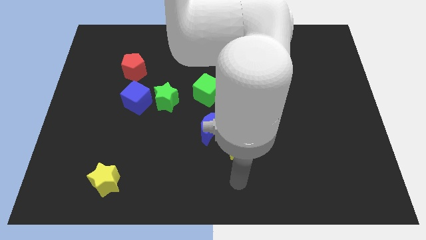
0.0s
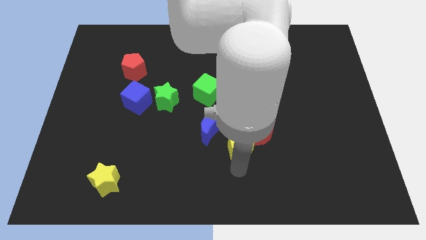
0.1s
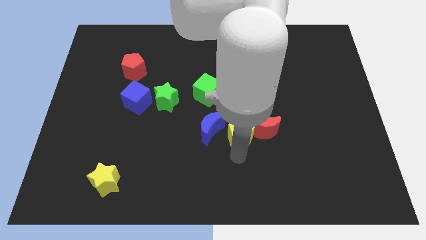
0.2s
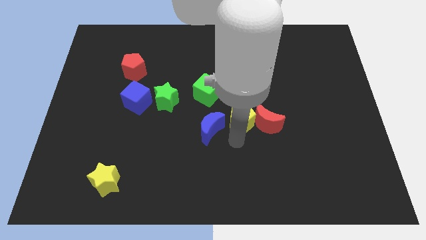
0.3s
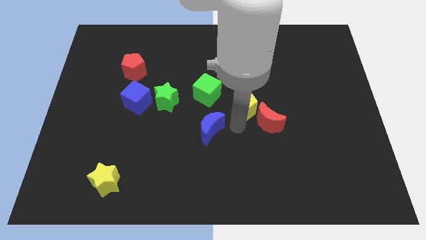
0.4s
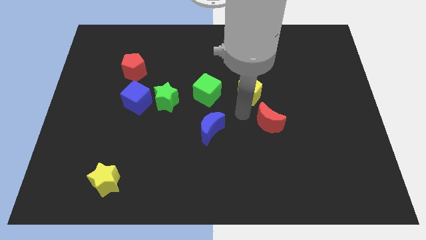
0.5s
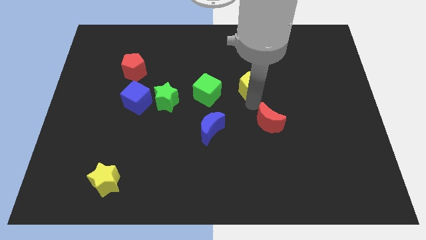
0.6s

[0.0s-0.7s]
pull the red moon apart from the yellow pentagon

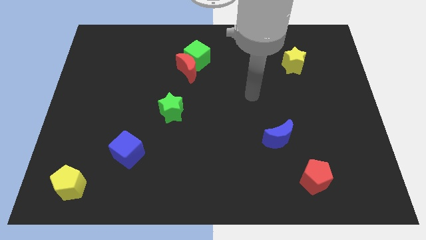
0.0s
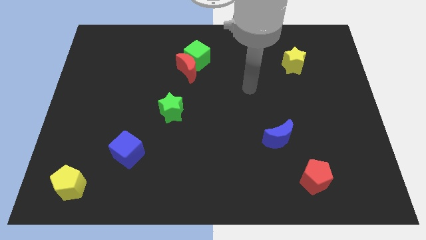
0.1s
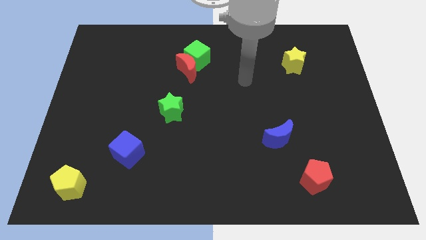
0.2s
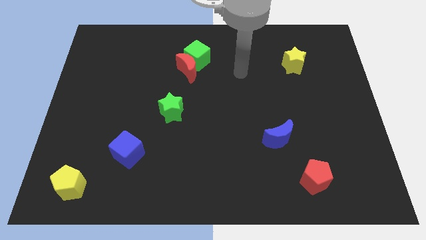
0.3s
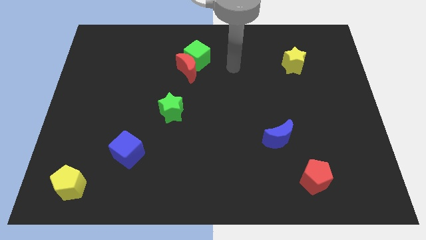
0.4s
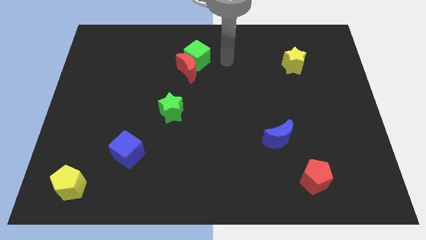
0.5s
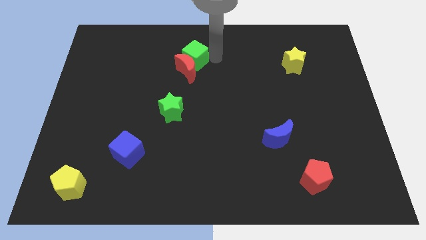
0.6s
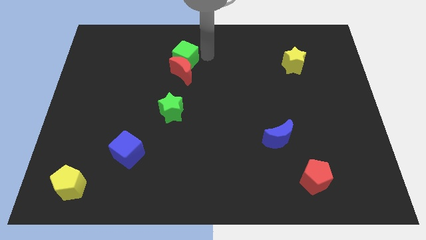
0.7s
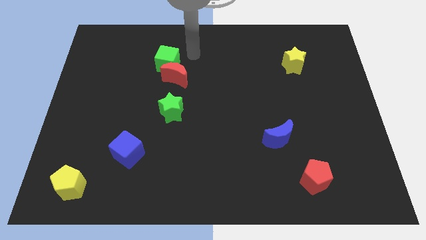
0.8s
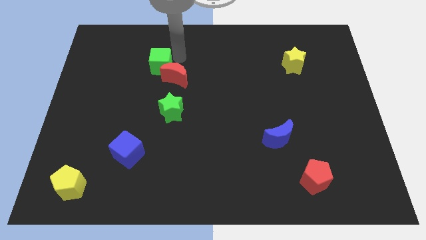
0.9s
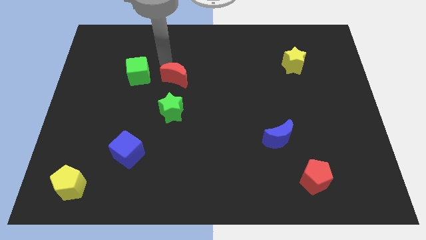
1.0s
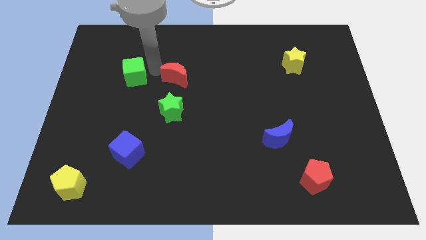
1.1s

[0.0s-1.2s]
pull the red moon apart from the green cube

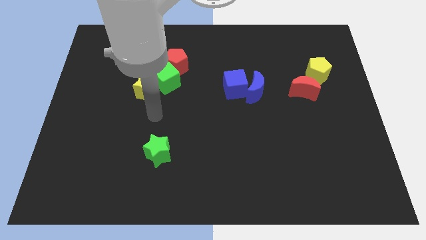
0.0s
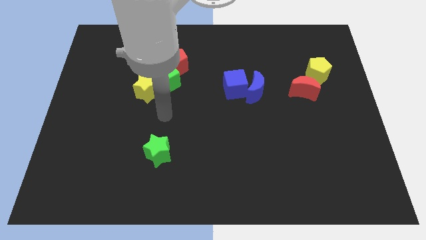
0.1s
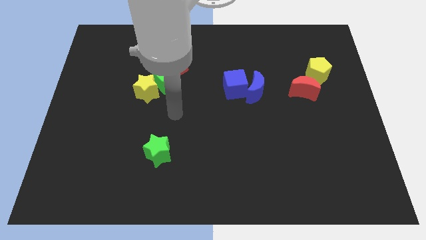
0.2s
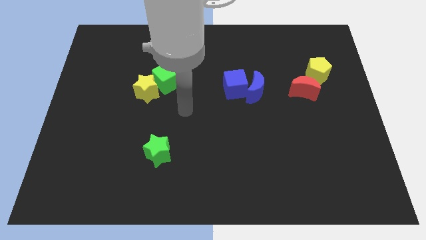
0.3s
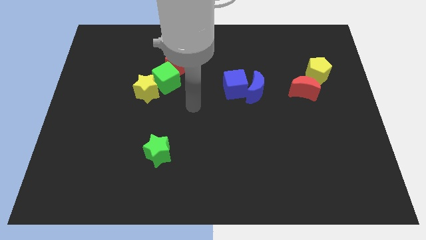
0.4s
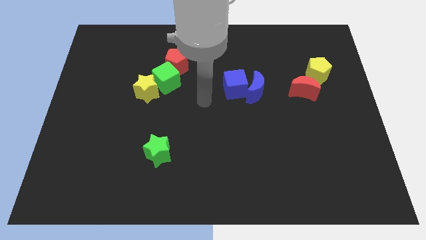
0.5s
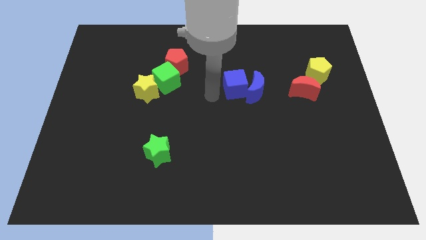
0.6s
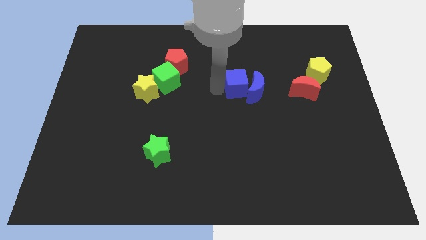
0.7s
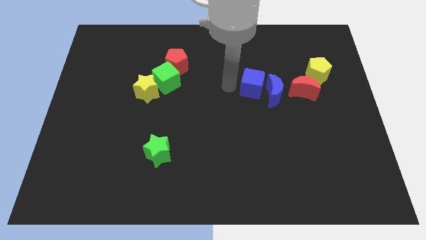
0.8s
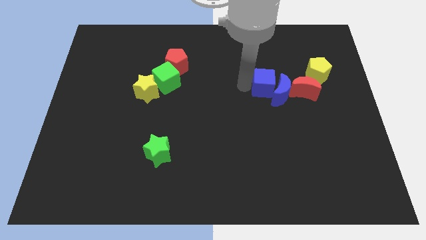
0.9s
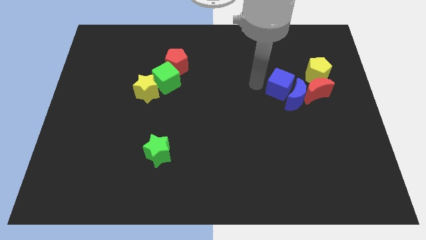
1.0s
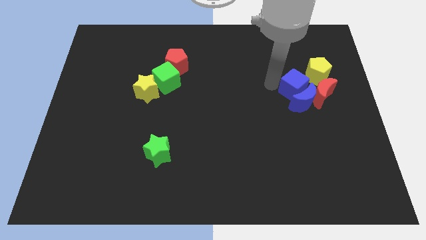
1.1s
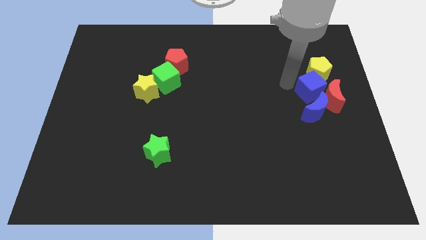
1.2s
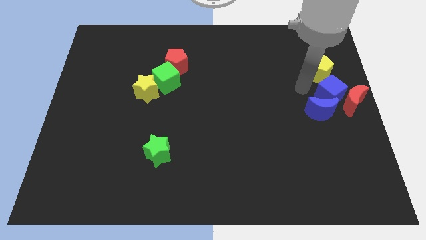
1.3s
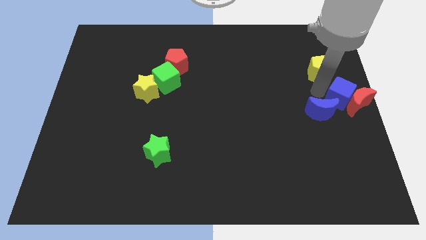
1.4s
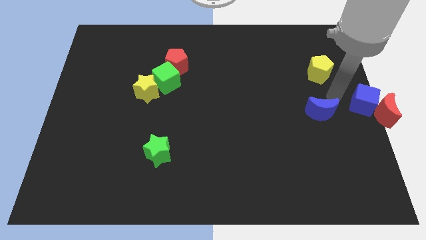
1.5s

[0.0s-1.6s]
separate the blue moon from the blue cube

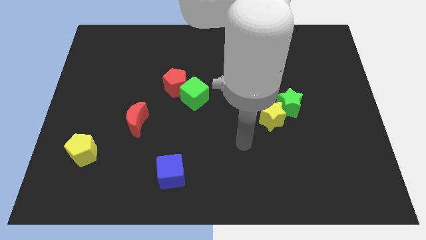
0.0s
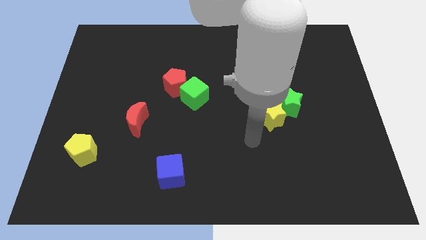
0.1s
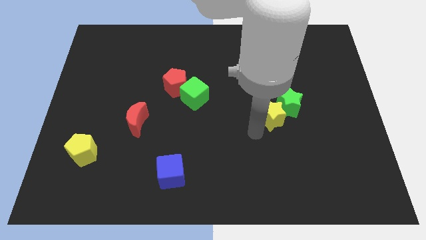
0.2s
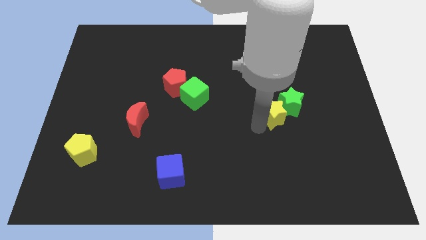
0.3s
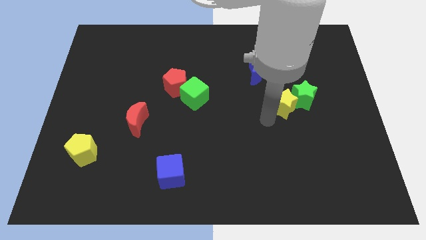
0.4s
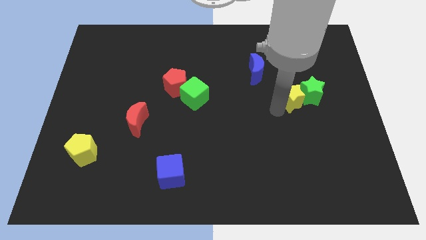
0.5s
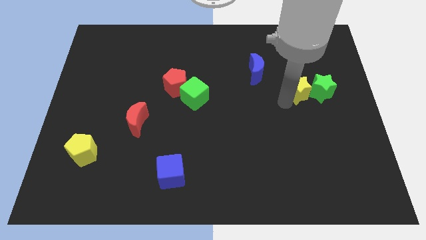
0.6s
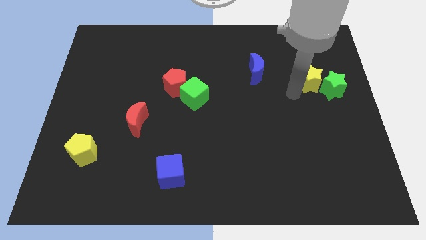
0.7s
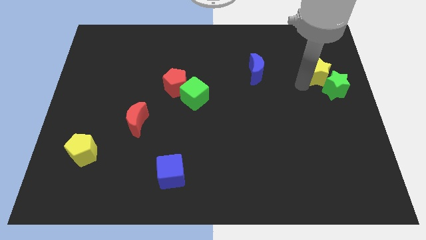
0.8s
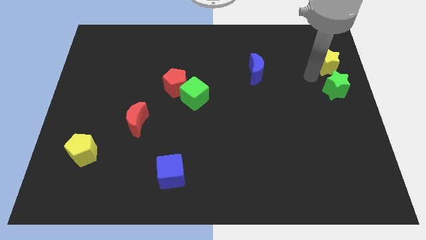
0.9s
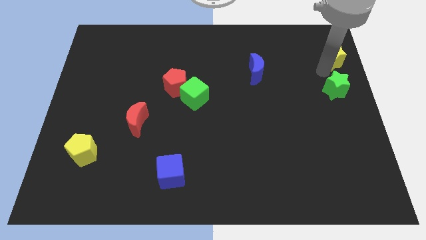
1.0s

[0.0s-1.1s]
separate the green star from the yellow star

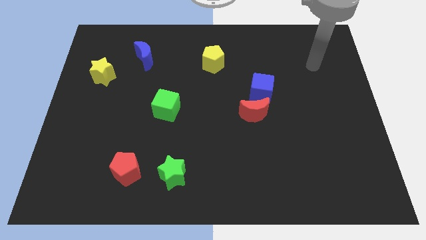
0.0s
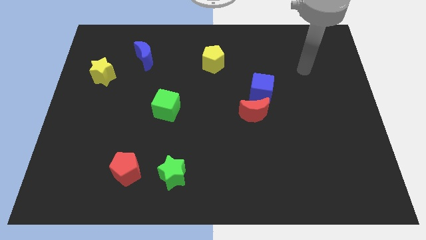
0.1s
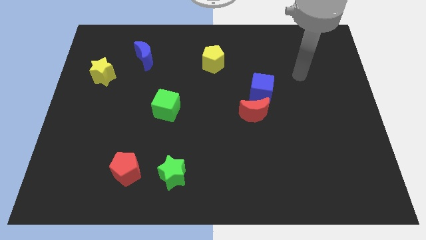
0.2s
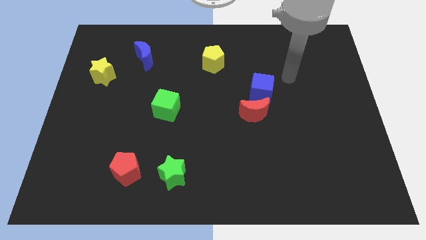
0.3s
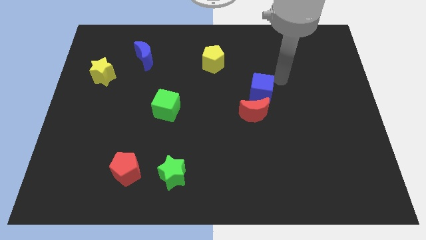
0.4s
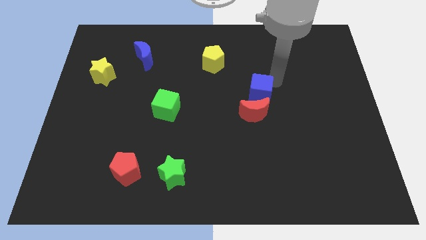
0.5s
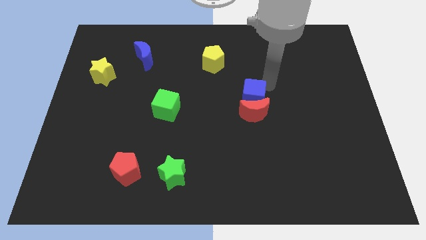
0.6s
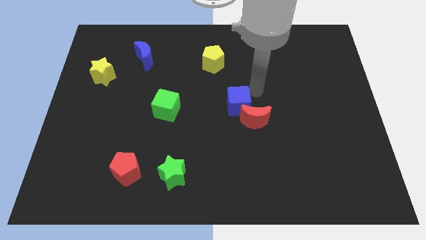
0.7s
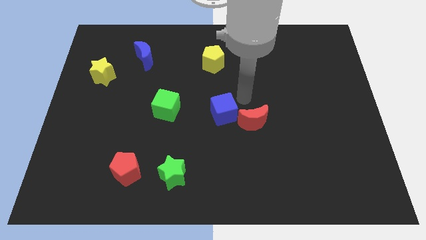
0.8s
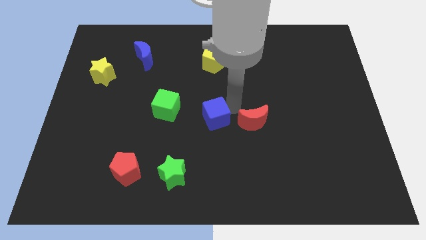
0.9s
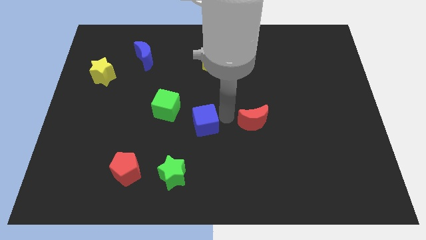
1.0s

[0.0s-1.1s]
separate the red moon from the blue cube

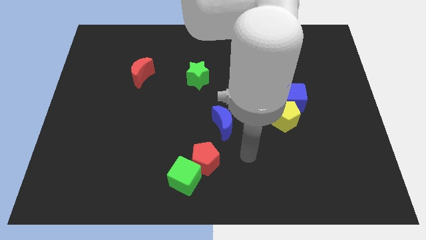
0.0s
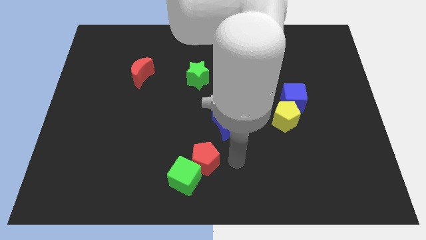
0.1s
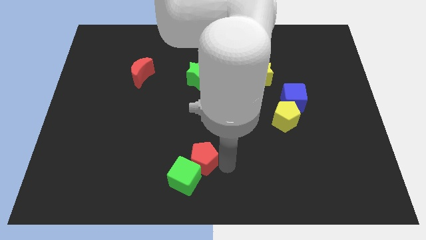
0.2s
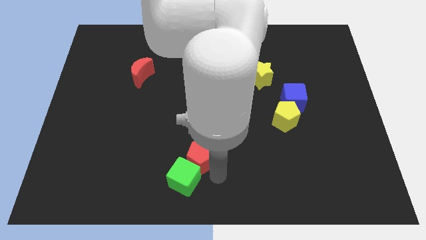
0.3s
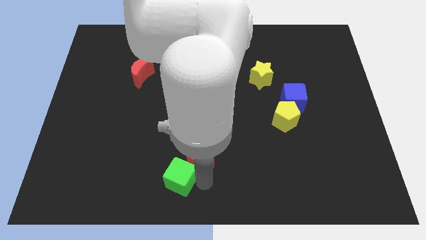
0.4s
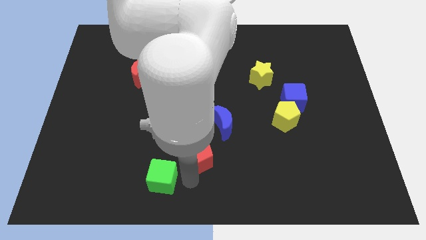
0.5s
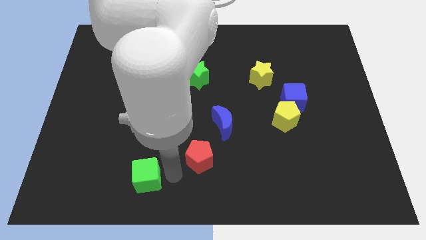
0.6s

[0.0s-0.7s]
move the red pentagon away from the green cube

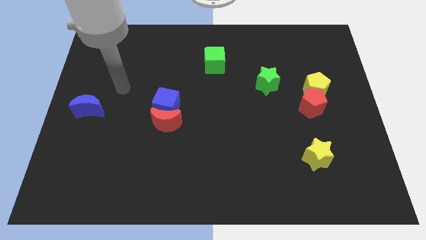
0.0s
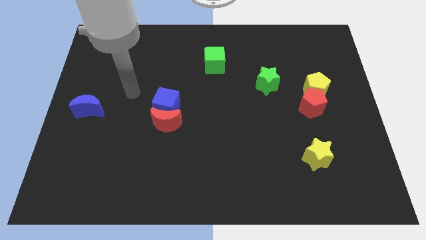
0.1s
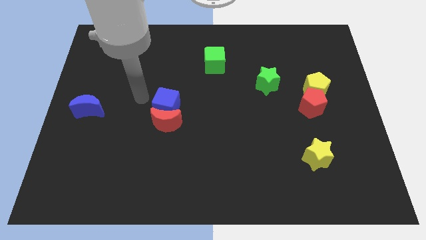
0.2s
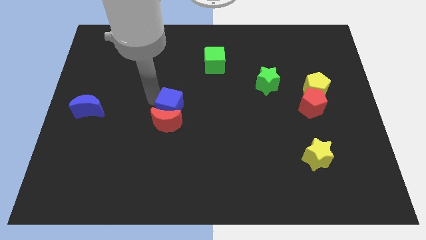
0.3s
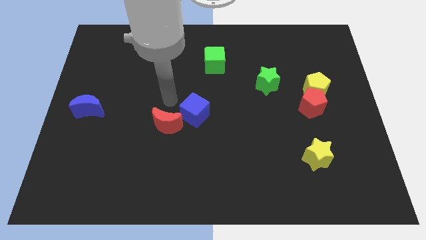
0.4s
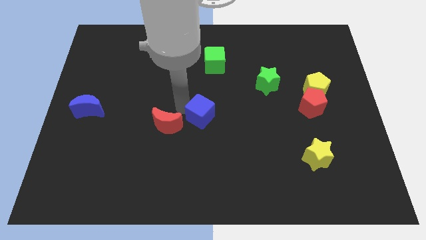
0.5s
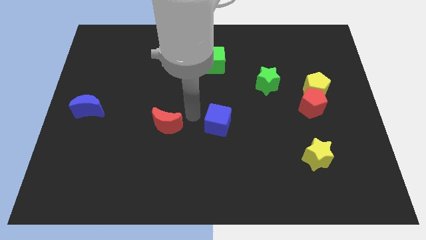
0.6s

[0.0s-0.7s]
pull the red moon apart from the blue cube

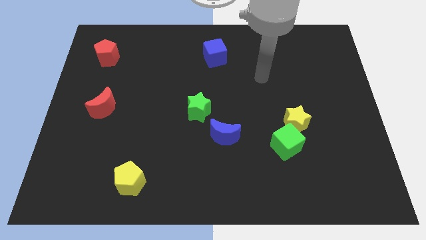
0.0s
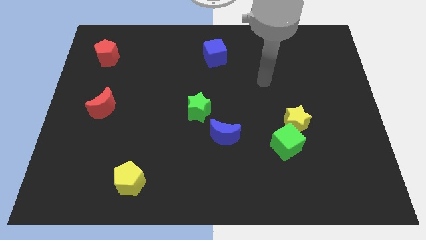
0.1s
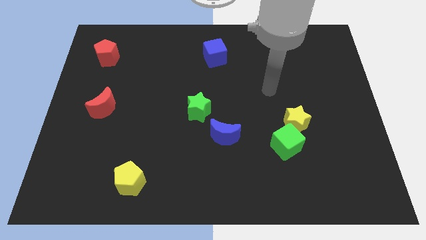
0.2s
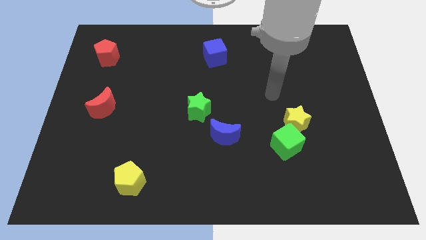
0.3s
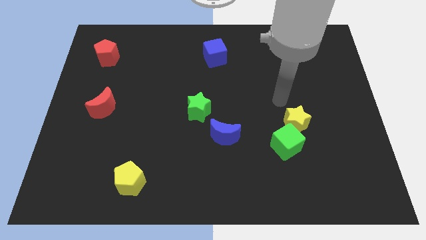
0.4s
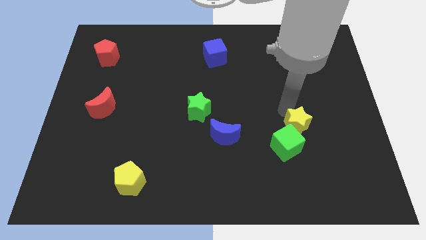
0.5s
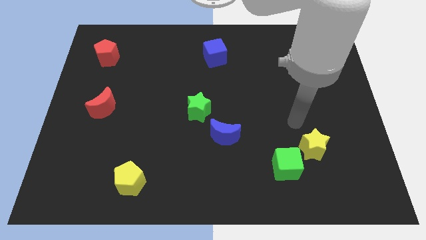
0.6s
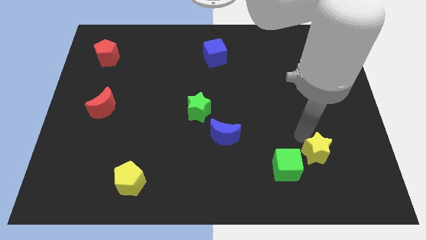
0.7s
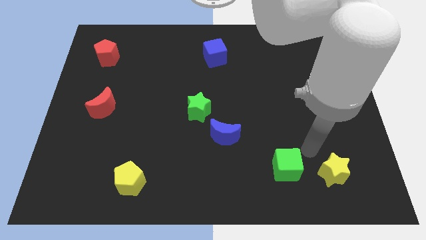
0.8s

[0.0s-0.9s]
pull the green cube apart from the yellow star

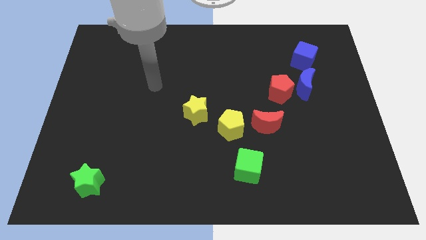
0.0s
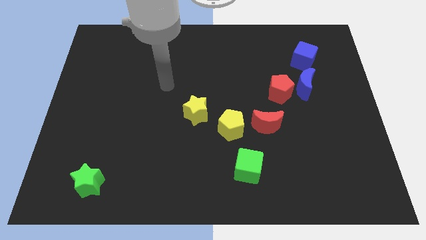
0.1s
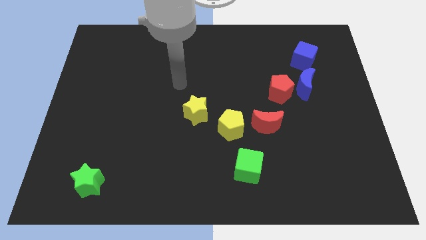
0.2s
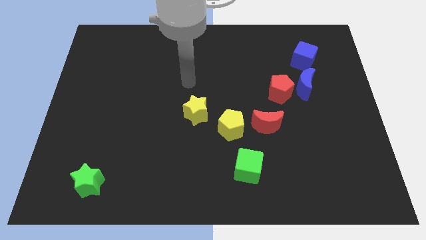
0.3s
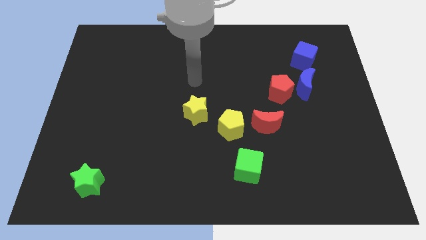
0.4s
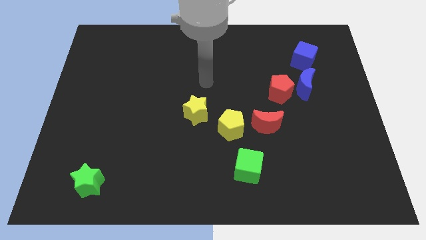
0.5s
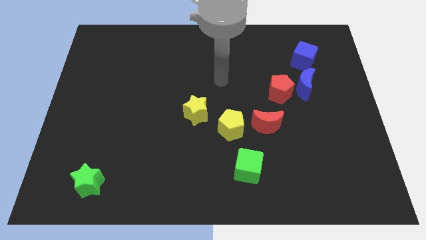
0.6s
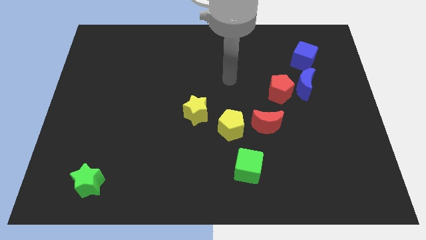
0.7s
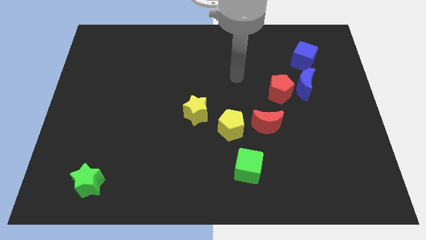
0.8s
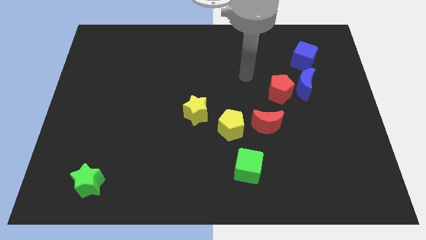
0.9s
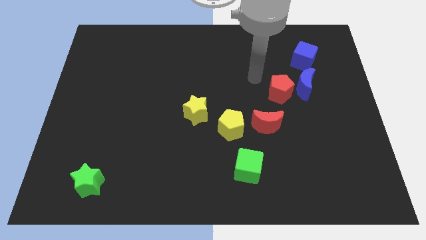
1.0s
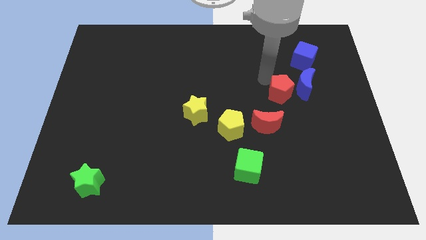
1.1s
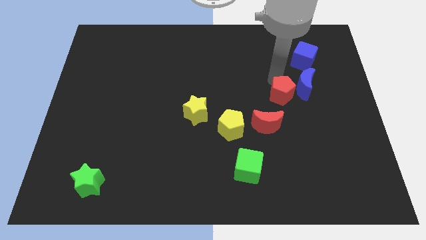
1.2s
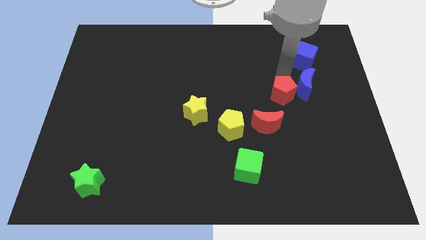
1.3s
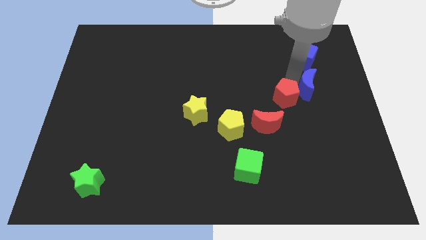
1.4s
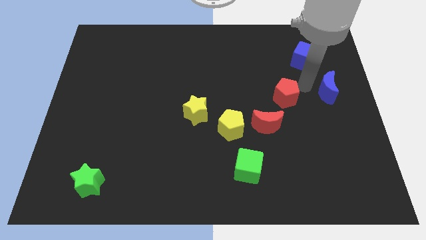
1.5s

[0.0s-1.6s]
pull the red pentagon apart from the blue moon
